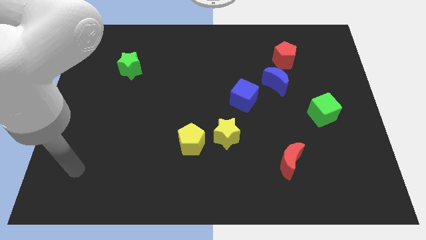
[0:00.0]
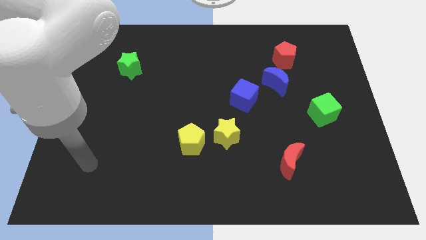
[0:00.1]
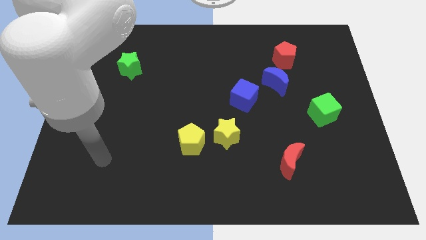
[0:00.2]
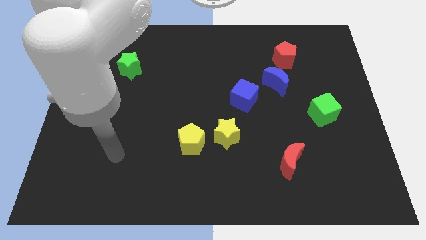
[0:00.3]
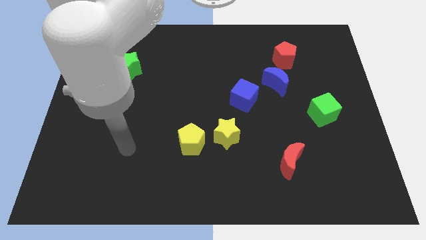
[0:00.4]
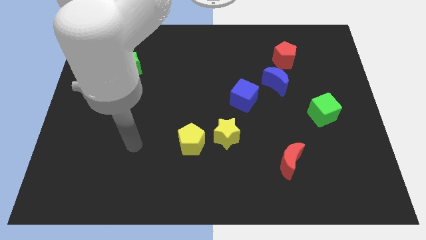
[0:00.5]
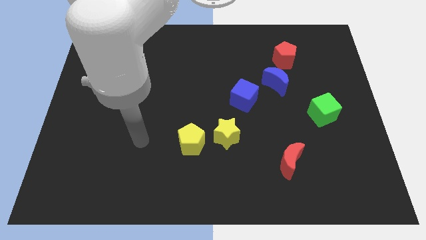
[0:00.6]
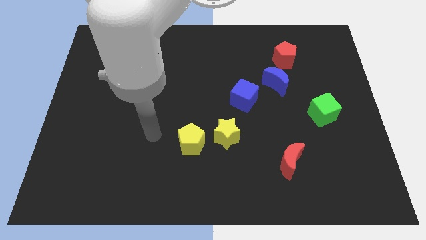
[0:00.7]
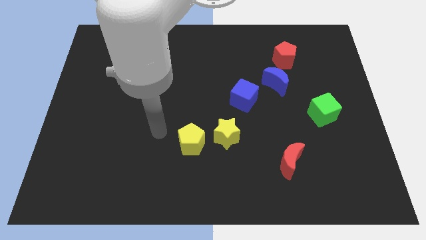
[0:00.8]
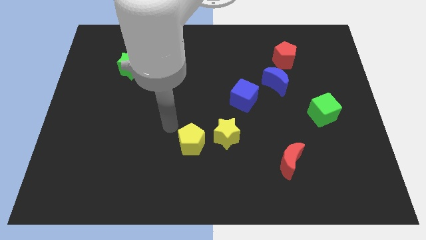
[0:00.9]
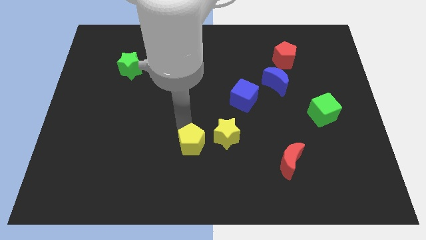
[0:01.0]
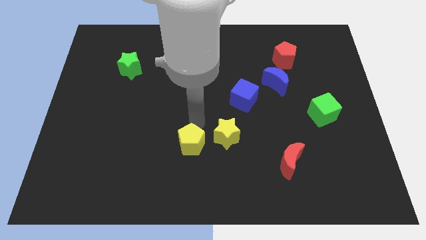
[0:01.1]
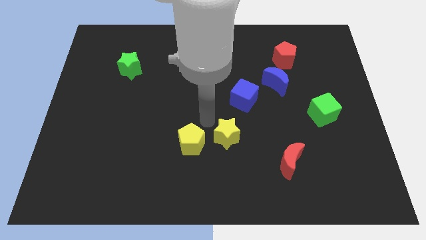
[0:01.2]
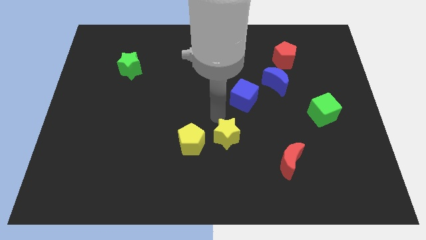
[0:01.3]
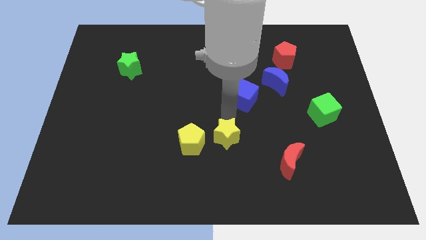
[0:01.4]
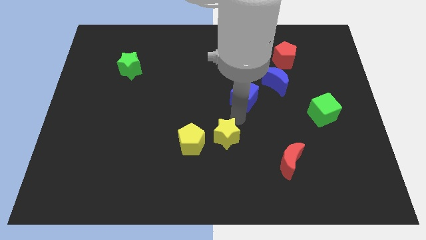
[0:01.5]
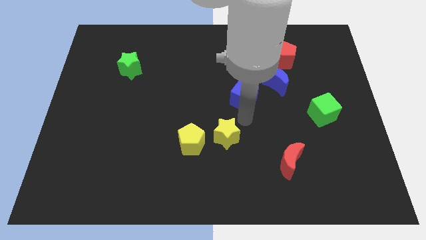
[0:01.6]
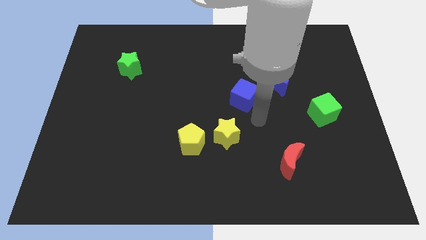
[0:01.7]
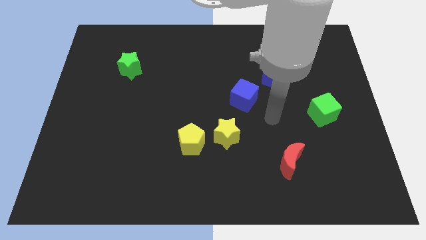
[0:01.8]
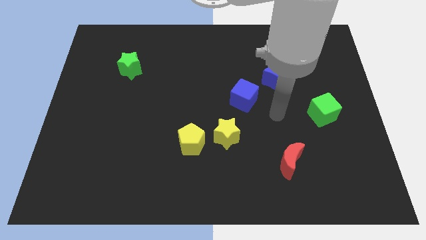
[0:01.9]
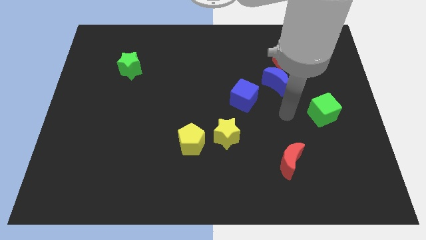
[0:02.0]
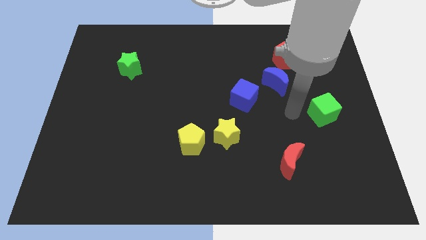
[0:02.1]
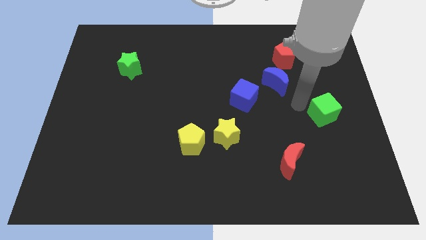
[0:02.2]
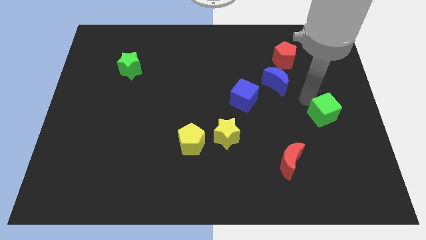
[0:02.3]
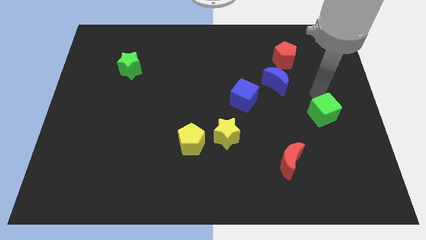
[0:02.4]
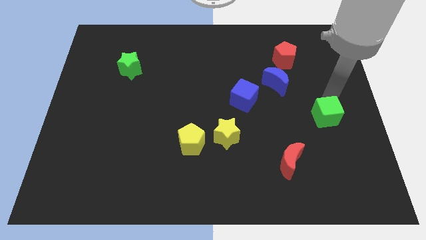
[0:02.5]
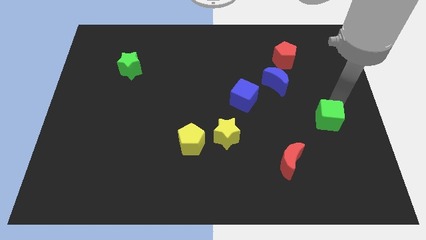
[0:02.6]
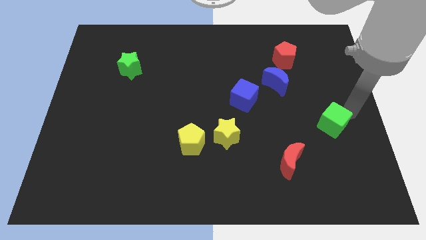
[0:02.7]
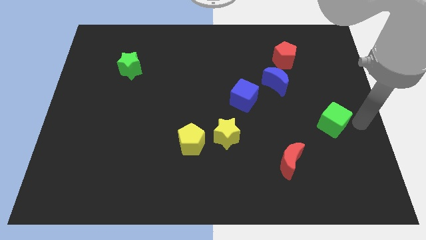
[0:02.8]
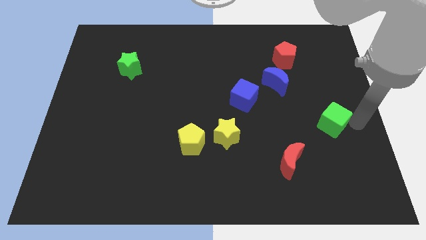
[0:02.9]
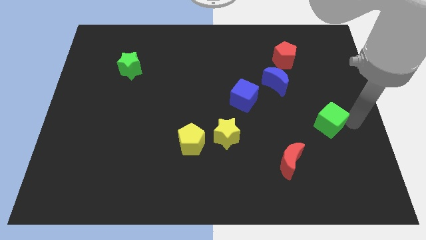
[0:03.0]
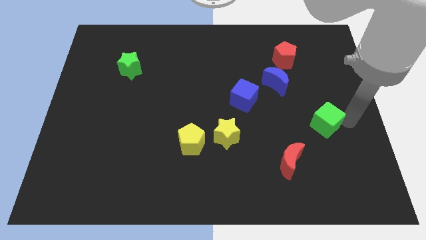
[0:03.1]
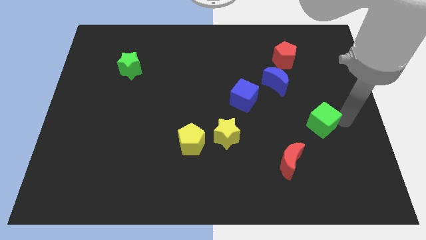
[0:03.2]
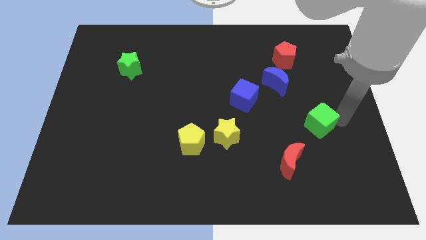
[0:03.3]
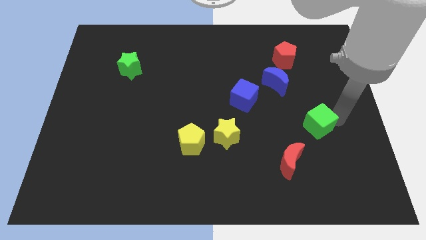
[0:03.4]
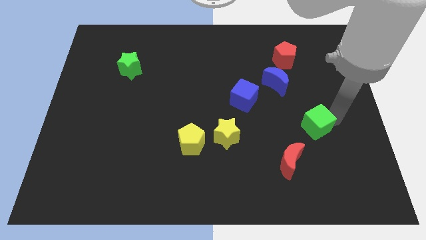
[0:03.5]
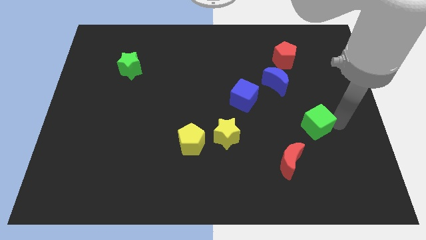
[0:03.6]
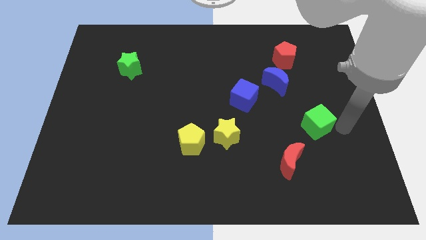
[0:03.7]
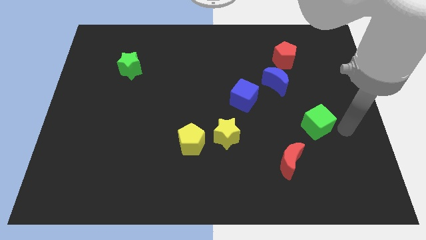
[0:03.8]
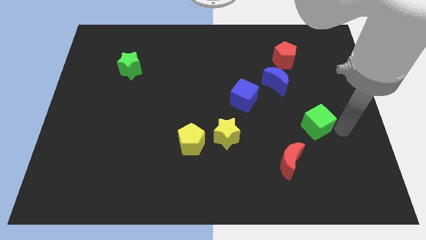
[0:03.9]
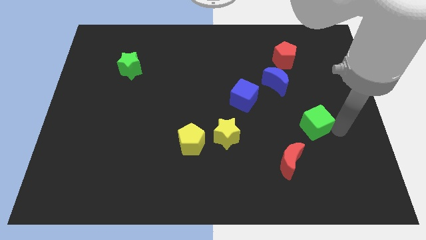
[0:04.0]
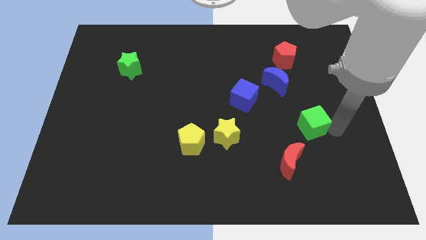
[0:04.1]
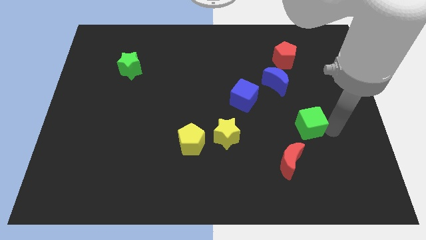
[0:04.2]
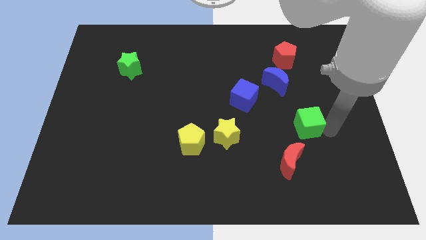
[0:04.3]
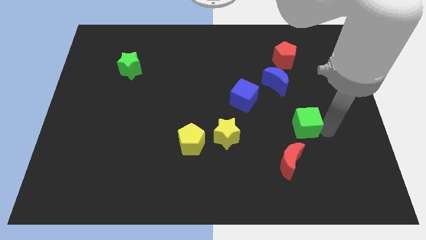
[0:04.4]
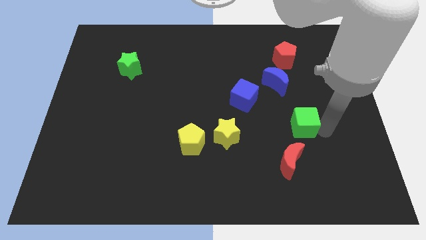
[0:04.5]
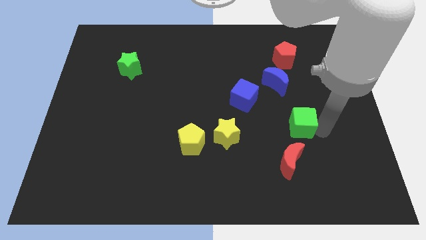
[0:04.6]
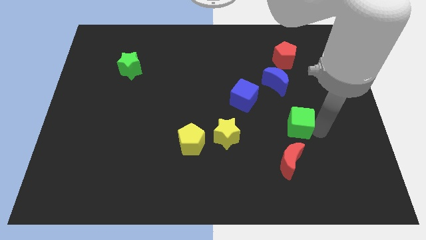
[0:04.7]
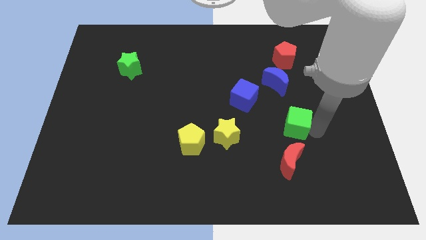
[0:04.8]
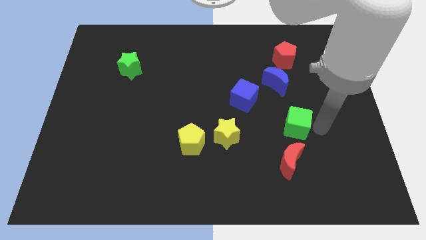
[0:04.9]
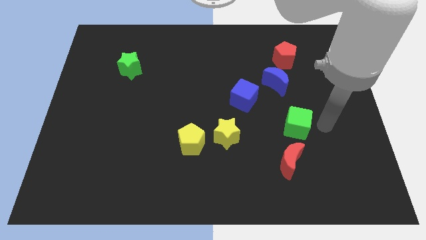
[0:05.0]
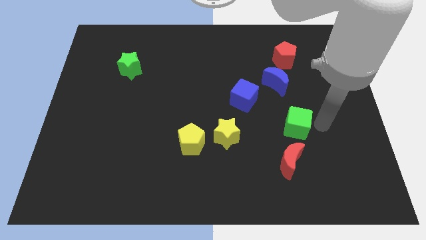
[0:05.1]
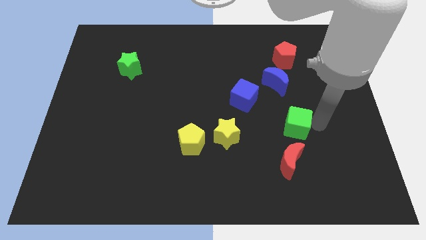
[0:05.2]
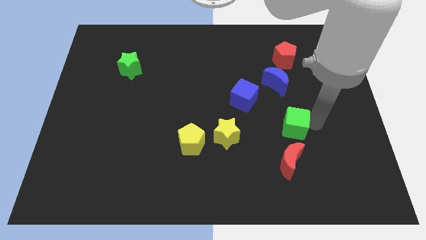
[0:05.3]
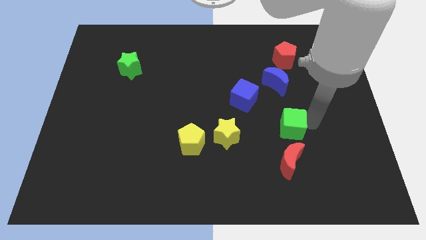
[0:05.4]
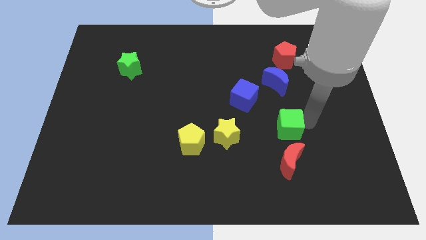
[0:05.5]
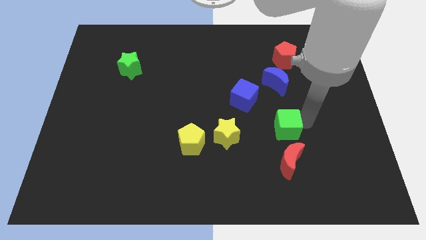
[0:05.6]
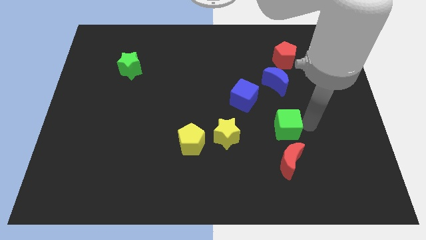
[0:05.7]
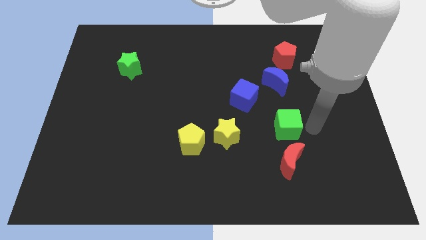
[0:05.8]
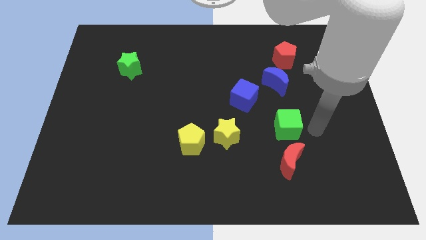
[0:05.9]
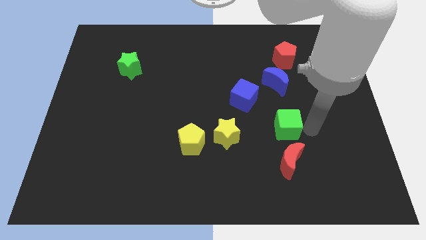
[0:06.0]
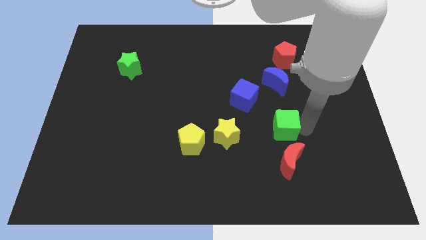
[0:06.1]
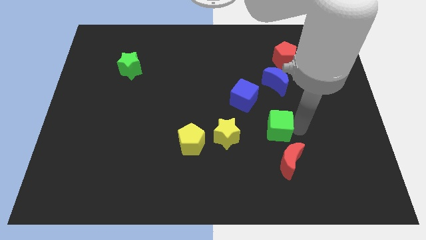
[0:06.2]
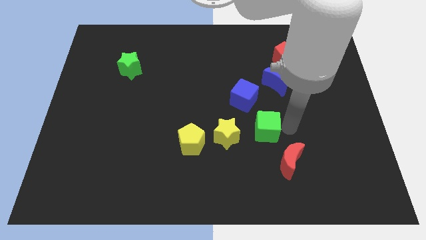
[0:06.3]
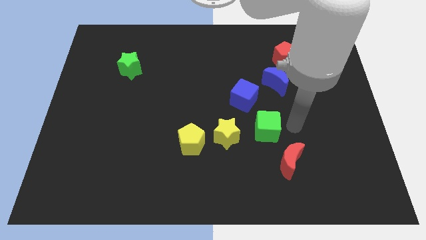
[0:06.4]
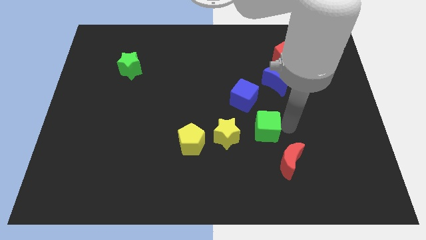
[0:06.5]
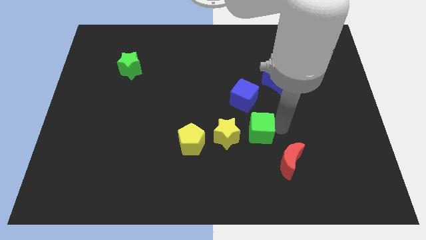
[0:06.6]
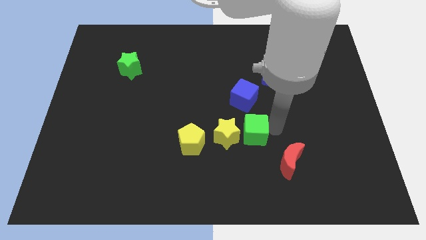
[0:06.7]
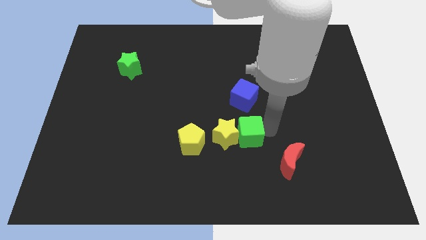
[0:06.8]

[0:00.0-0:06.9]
put the green cube next to the yellow star

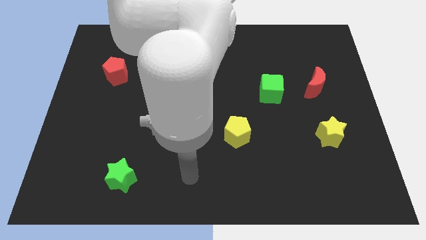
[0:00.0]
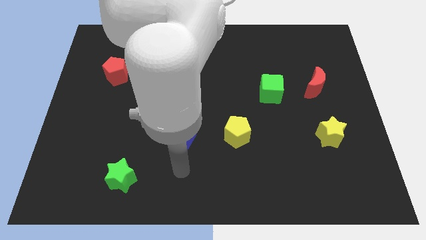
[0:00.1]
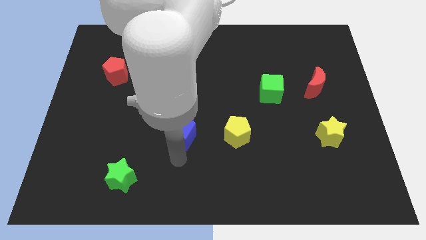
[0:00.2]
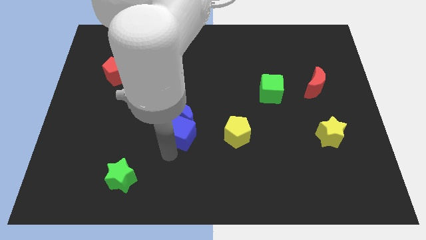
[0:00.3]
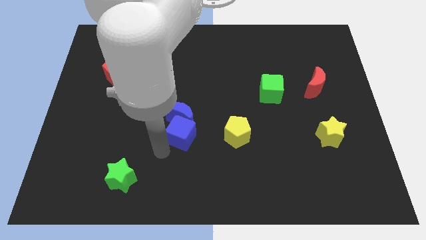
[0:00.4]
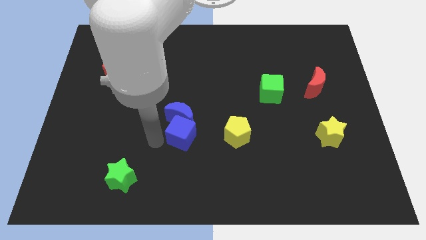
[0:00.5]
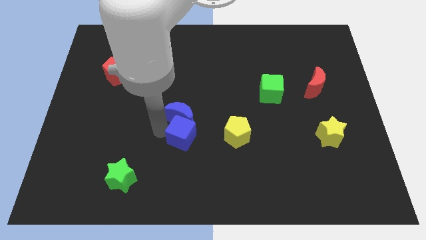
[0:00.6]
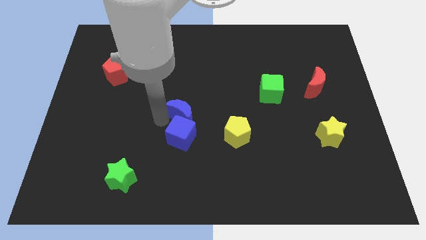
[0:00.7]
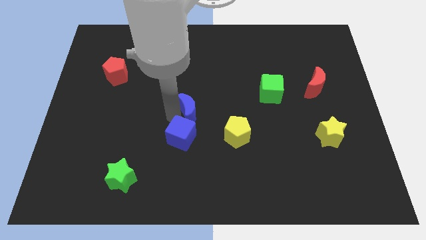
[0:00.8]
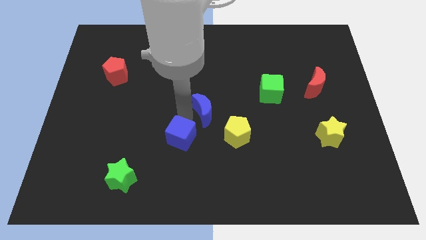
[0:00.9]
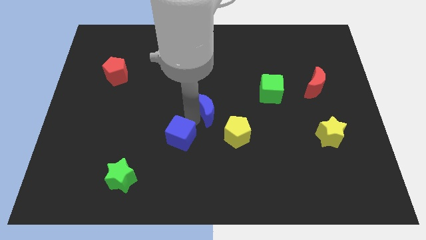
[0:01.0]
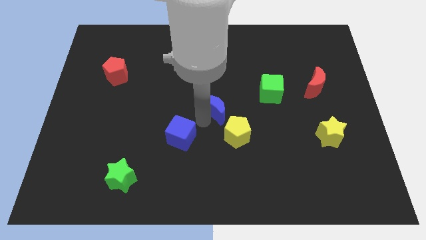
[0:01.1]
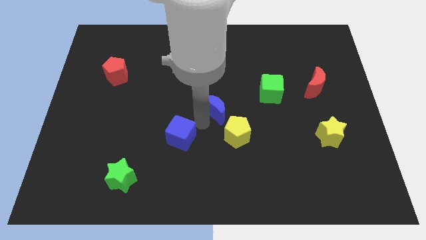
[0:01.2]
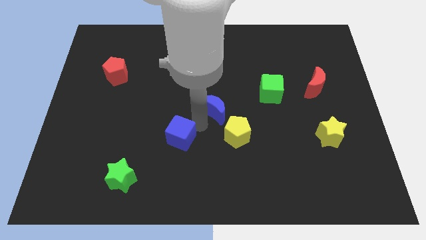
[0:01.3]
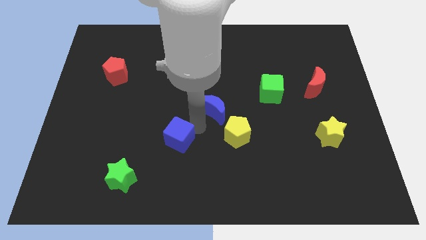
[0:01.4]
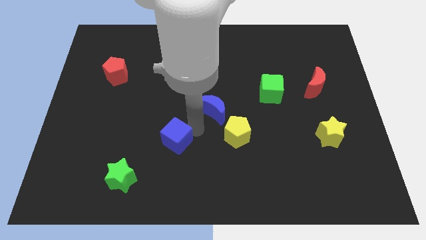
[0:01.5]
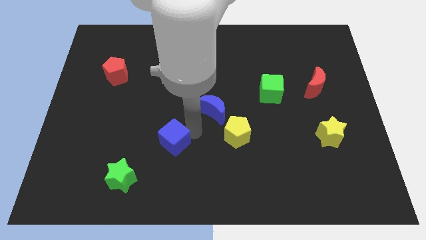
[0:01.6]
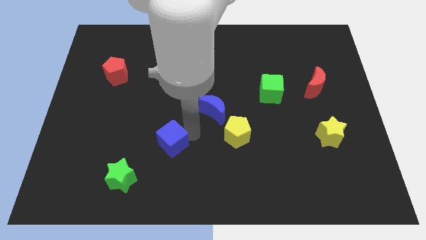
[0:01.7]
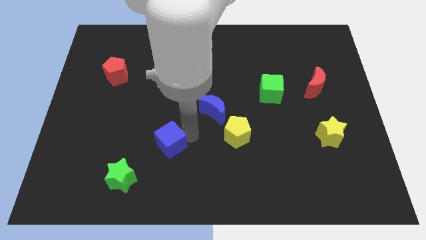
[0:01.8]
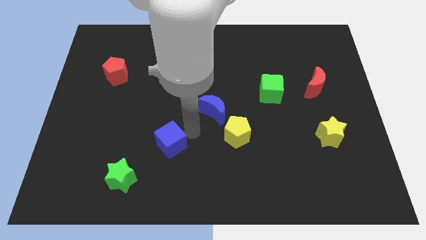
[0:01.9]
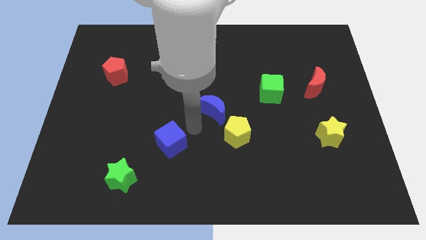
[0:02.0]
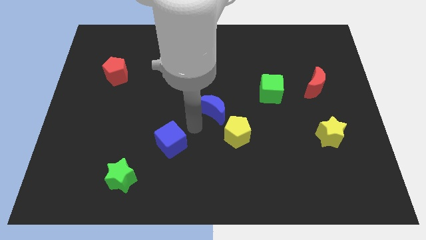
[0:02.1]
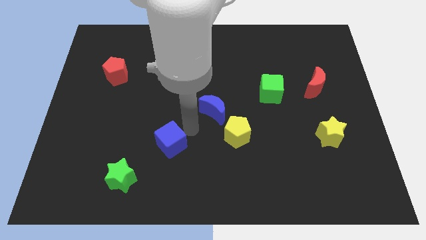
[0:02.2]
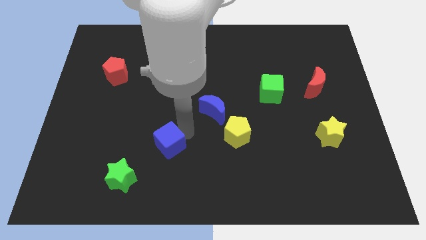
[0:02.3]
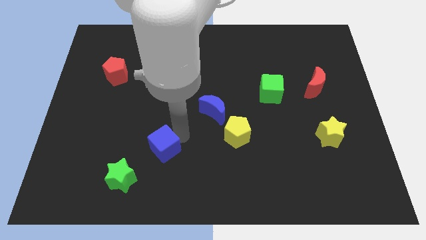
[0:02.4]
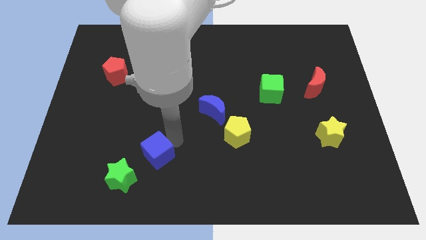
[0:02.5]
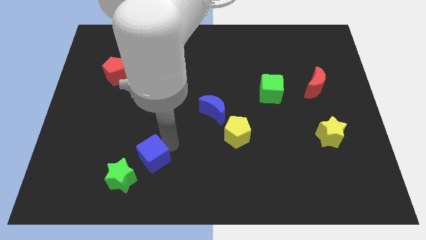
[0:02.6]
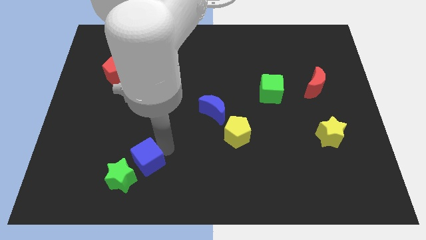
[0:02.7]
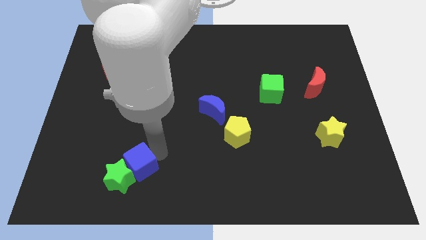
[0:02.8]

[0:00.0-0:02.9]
move the blue cube next to the green star
